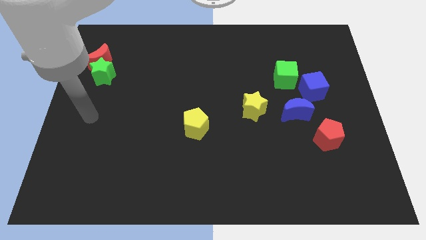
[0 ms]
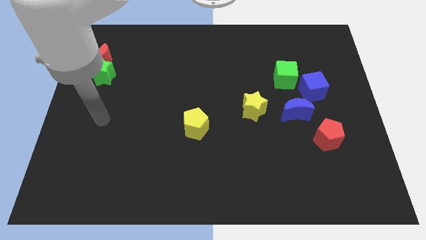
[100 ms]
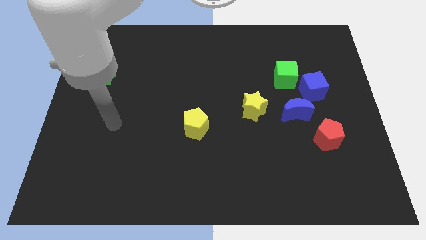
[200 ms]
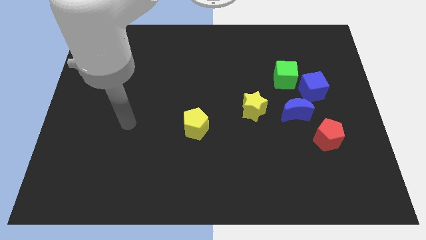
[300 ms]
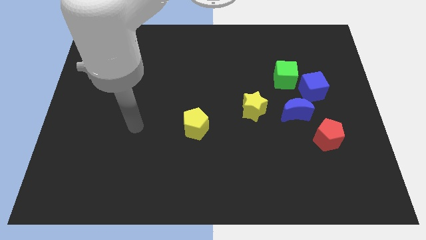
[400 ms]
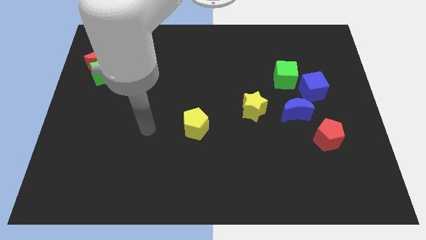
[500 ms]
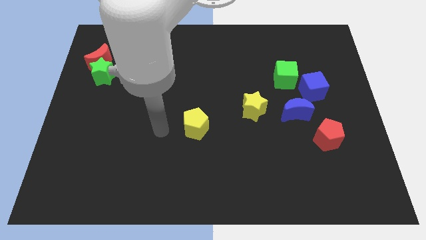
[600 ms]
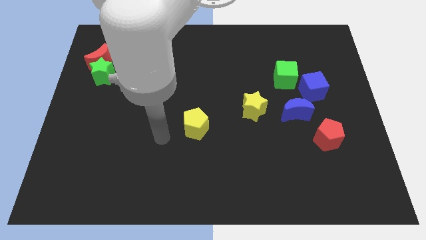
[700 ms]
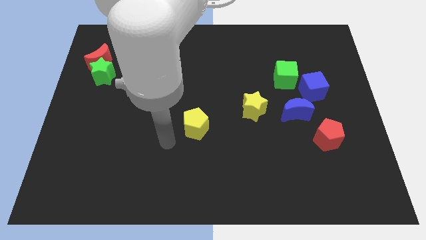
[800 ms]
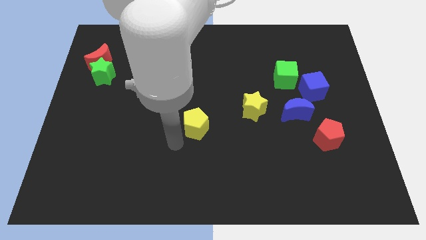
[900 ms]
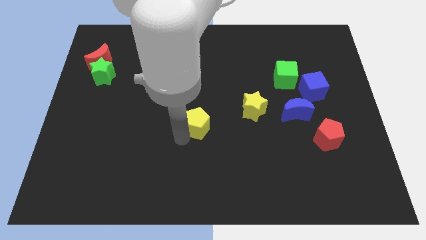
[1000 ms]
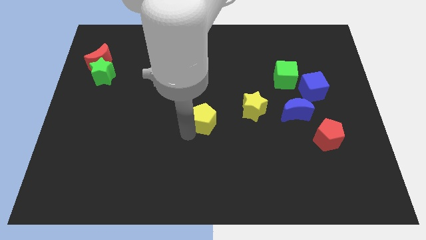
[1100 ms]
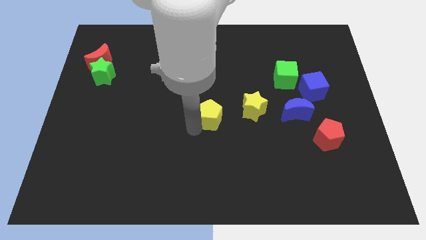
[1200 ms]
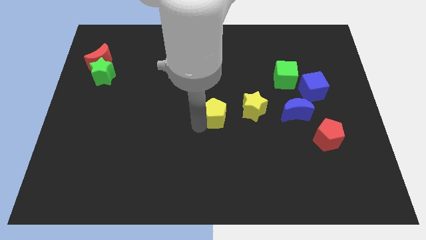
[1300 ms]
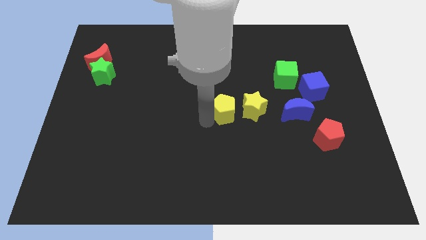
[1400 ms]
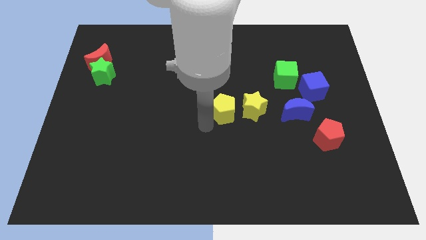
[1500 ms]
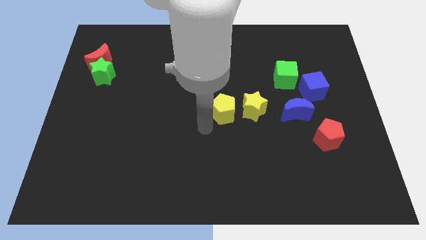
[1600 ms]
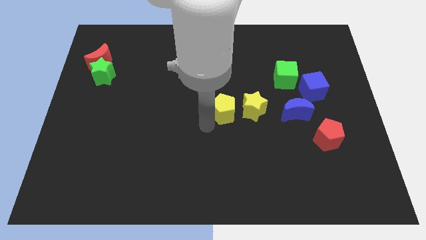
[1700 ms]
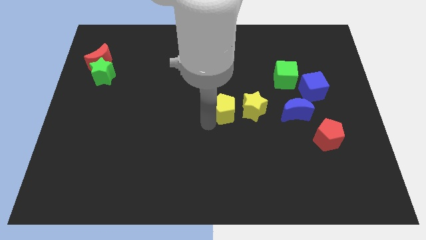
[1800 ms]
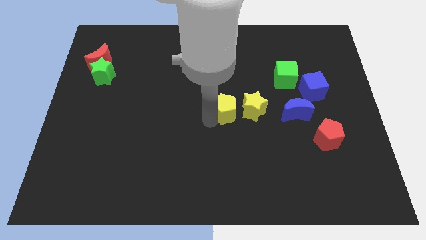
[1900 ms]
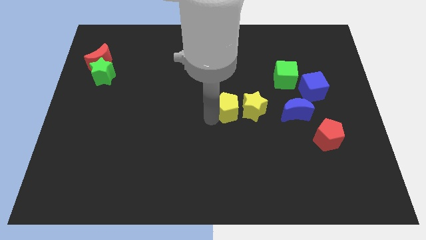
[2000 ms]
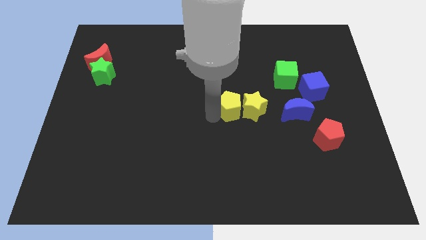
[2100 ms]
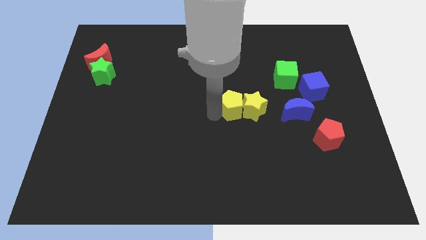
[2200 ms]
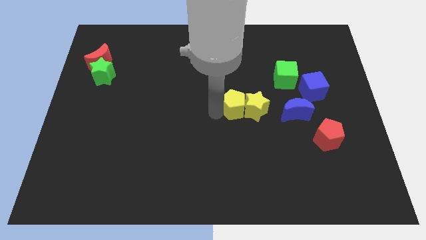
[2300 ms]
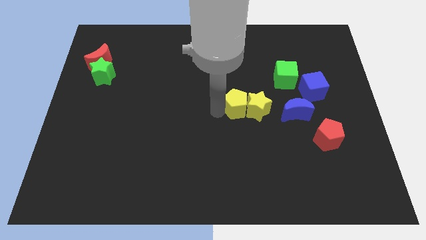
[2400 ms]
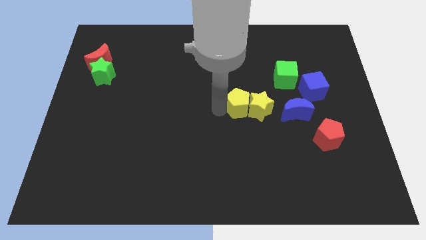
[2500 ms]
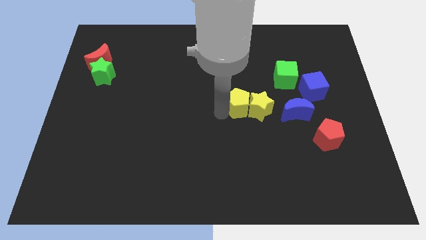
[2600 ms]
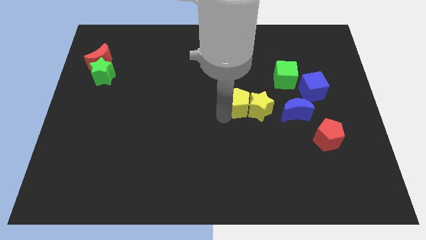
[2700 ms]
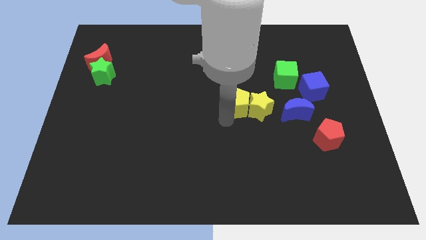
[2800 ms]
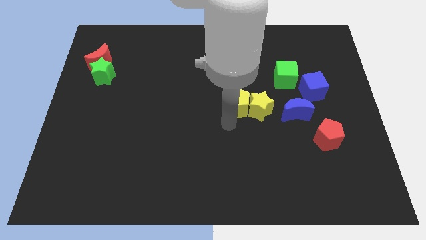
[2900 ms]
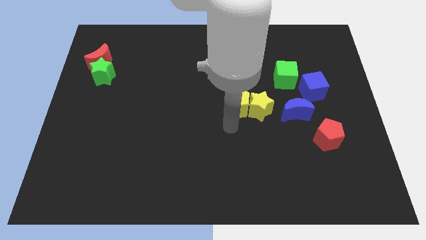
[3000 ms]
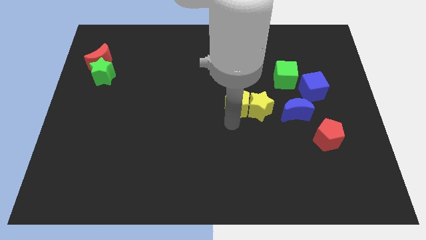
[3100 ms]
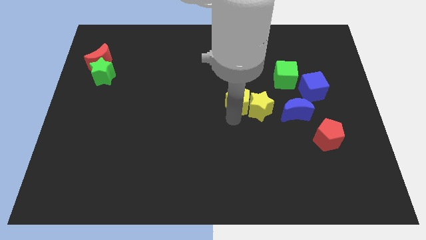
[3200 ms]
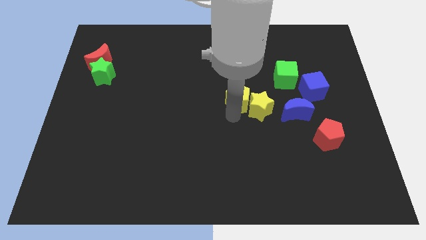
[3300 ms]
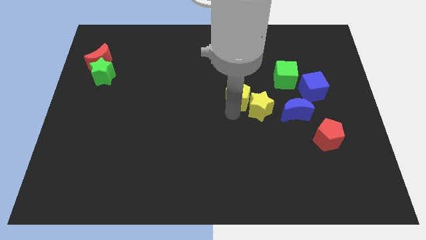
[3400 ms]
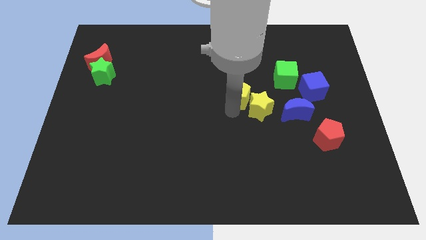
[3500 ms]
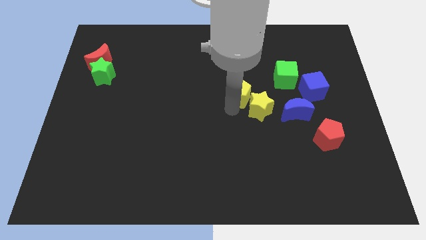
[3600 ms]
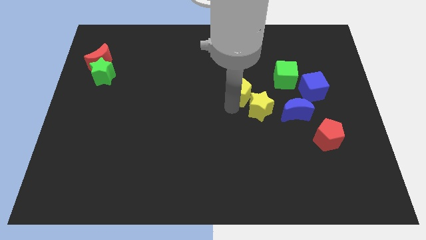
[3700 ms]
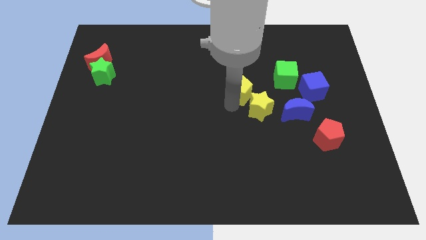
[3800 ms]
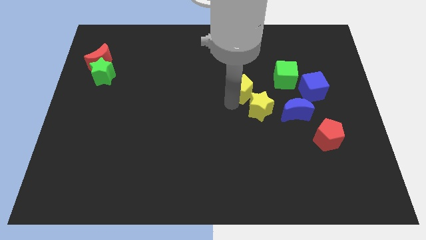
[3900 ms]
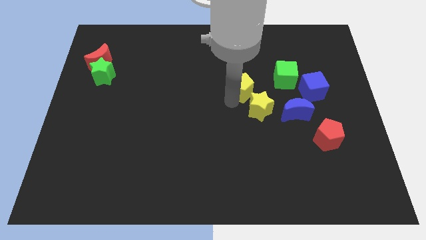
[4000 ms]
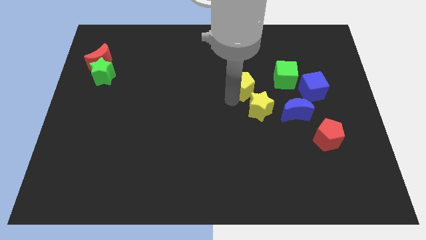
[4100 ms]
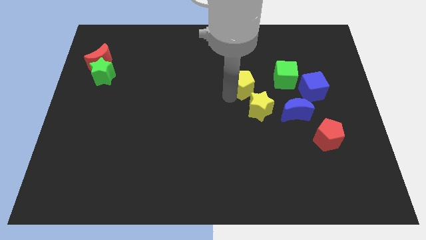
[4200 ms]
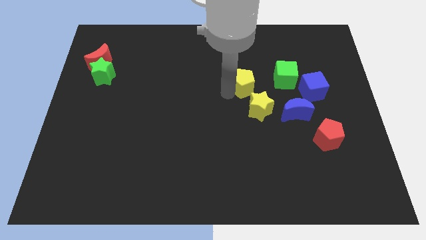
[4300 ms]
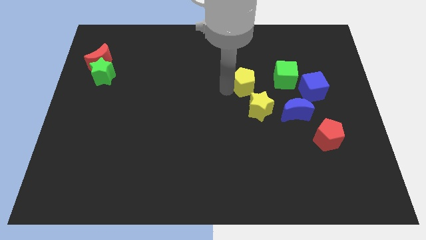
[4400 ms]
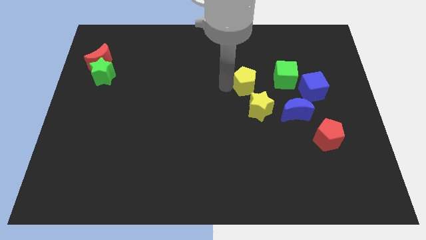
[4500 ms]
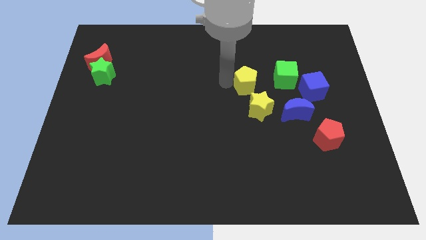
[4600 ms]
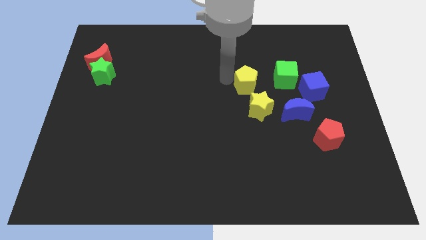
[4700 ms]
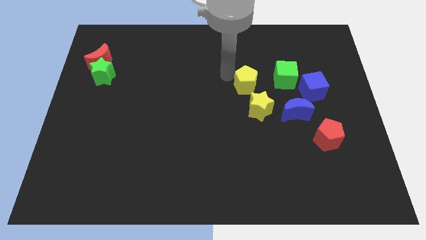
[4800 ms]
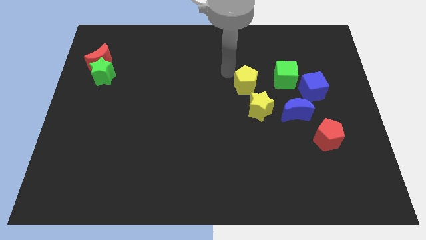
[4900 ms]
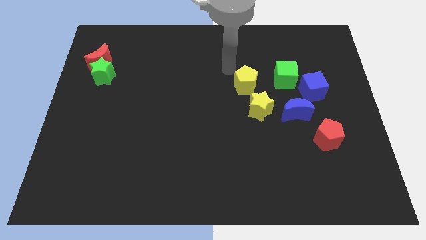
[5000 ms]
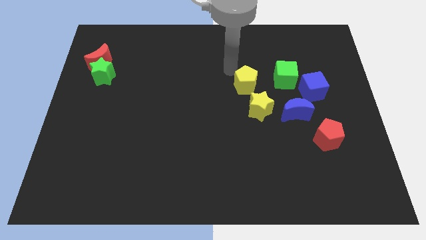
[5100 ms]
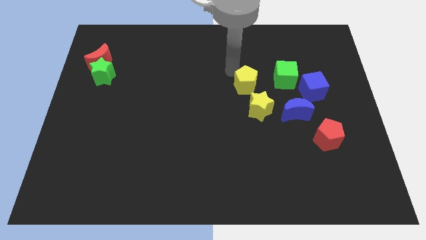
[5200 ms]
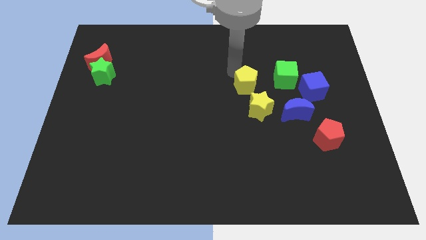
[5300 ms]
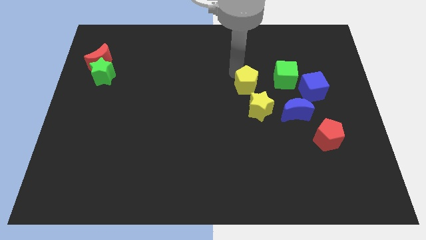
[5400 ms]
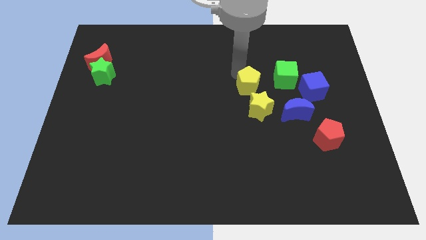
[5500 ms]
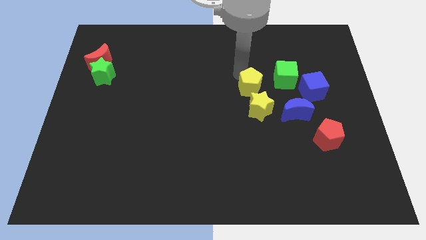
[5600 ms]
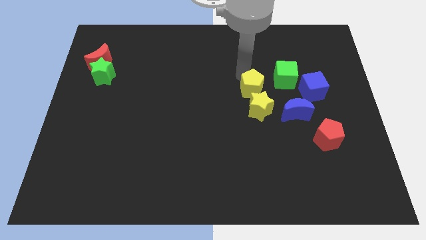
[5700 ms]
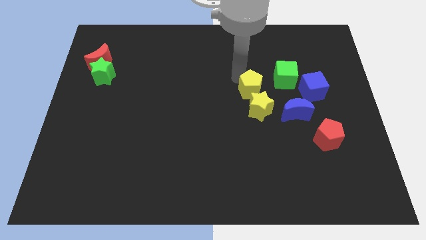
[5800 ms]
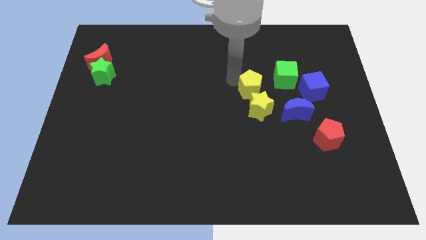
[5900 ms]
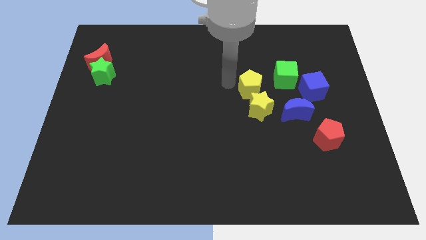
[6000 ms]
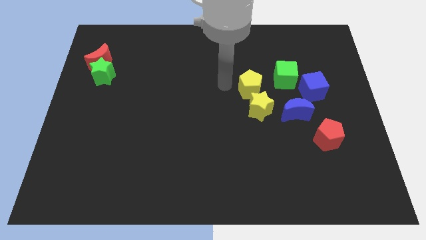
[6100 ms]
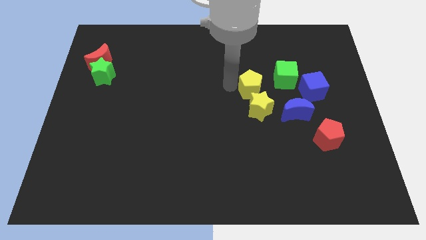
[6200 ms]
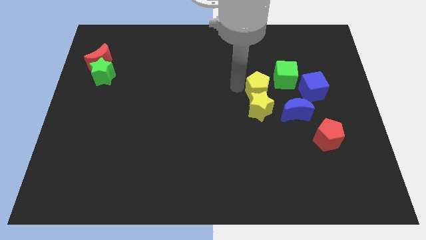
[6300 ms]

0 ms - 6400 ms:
slide the yellow pentagon to the top right of the yellow star

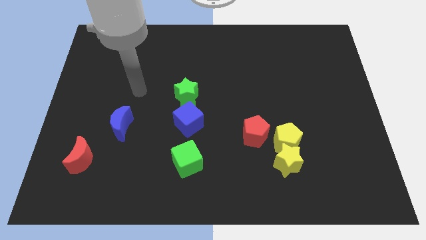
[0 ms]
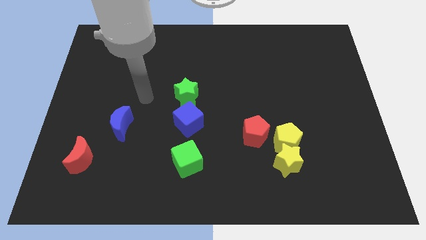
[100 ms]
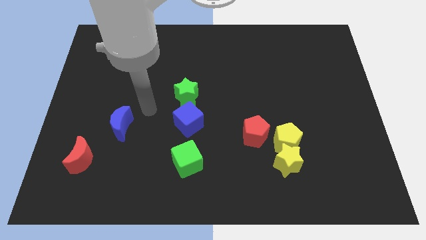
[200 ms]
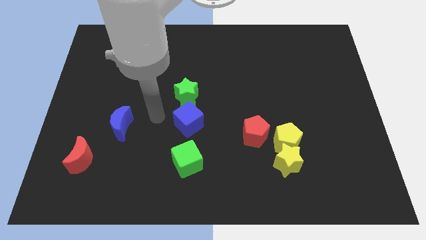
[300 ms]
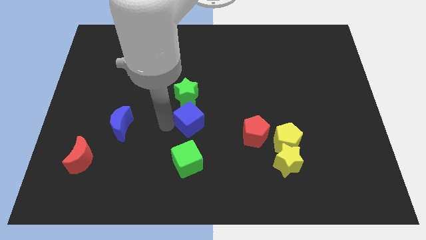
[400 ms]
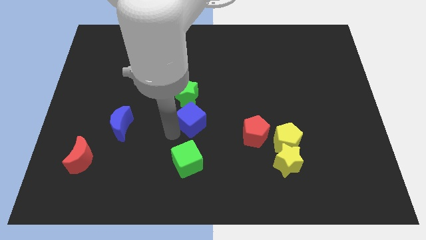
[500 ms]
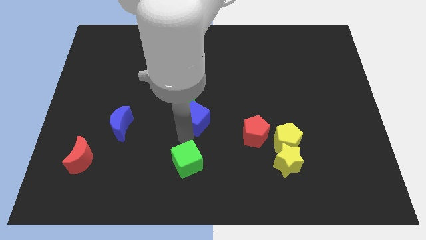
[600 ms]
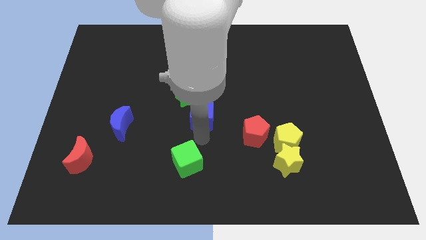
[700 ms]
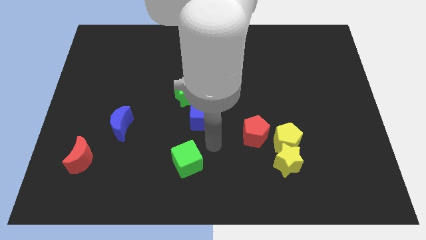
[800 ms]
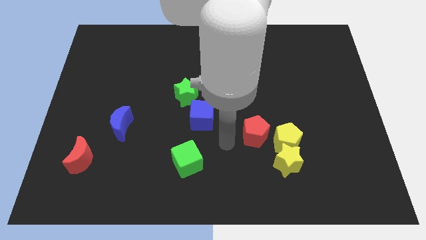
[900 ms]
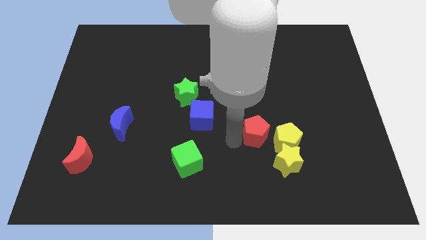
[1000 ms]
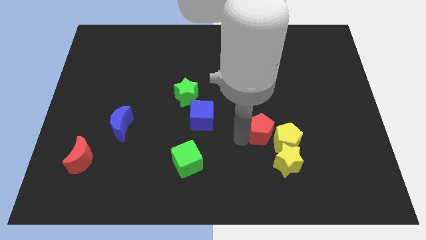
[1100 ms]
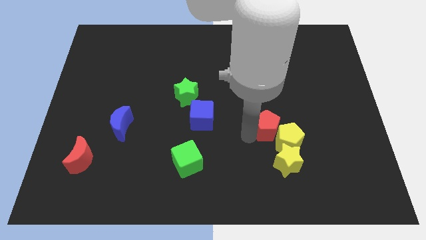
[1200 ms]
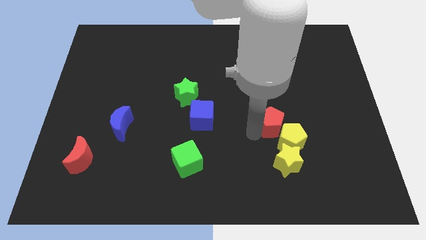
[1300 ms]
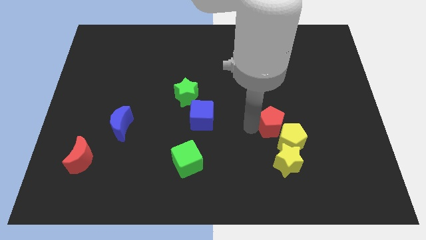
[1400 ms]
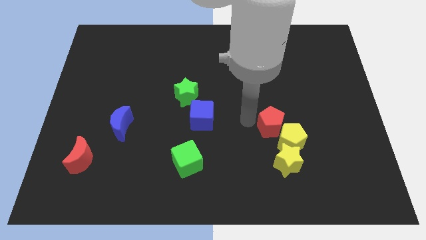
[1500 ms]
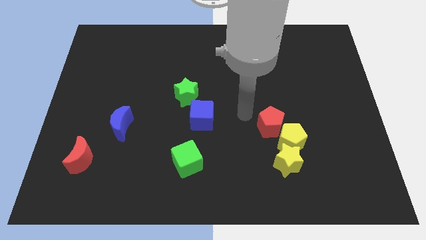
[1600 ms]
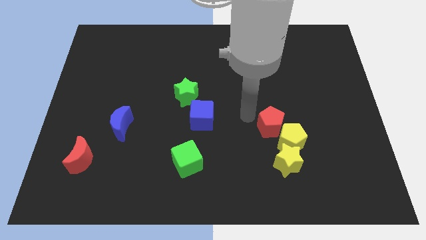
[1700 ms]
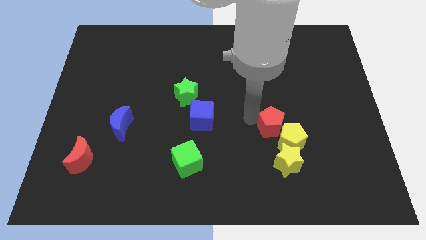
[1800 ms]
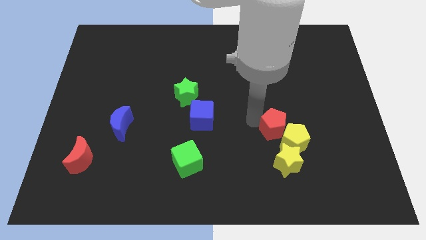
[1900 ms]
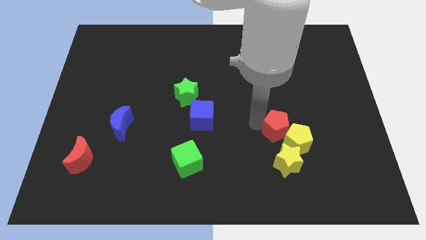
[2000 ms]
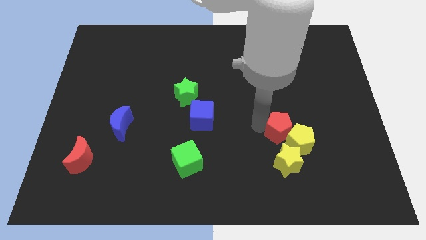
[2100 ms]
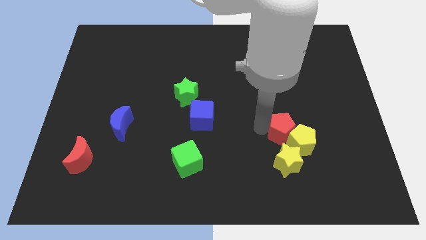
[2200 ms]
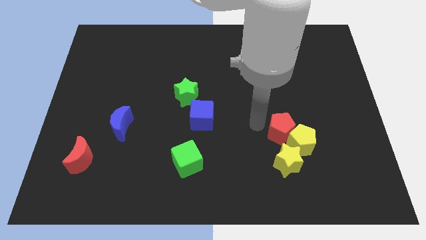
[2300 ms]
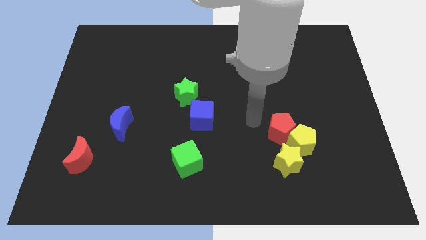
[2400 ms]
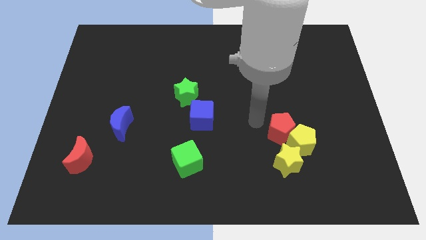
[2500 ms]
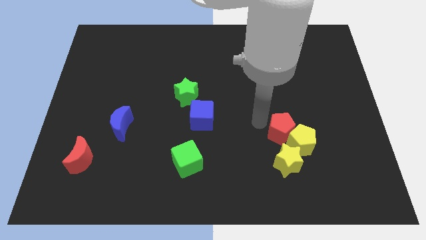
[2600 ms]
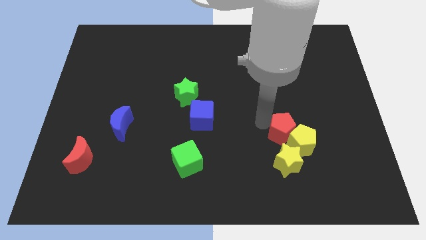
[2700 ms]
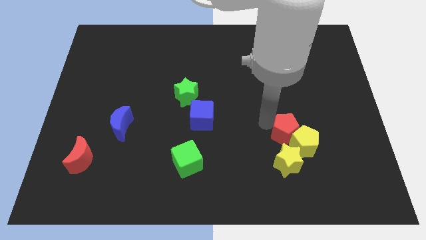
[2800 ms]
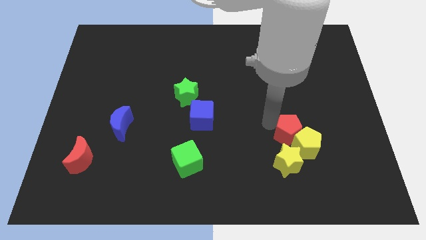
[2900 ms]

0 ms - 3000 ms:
put the red pentagon to the top right side of the yellow star
